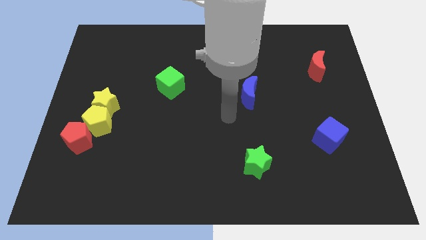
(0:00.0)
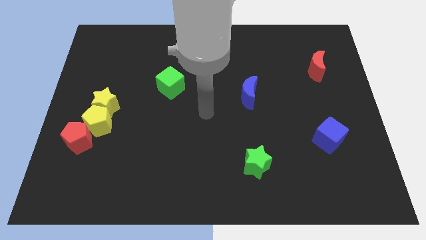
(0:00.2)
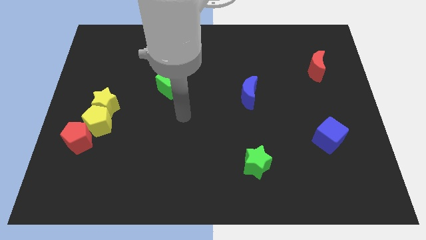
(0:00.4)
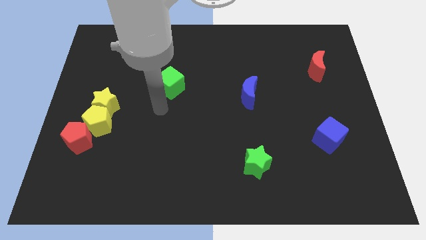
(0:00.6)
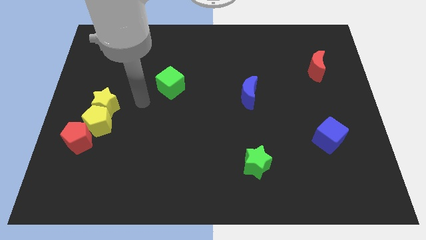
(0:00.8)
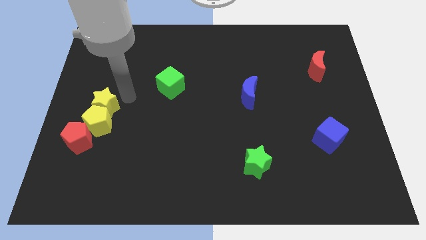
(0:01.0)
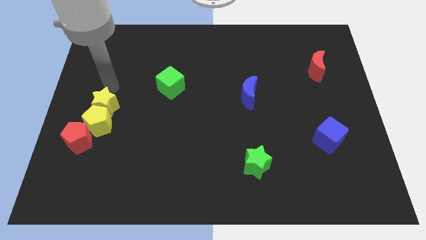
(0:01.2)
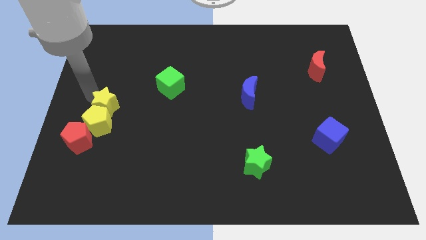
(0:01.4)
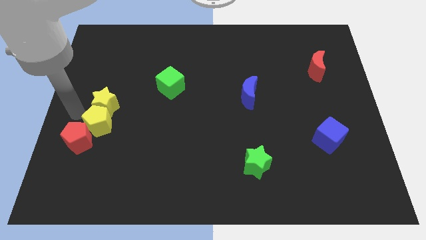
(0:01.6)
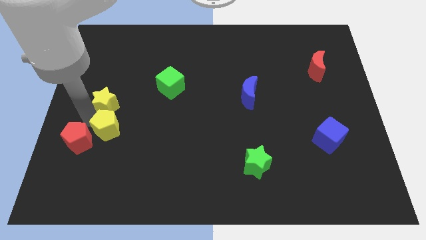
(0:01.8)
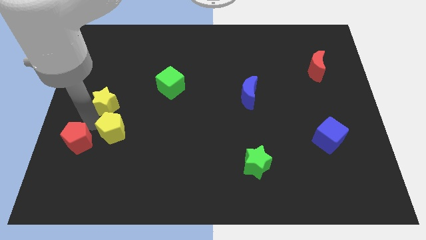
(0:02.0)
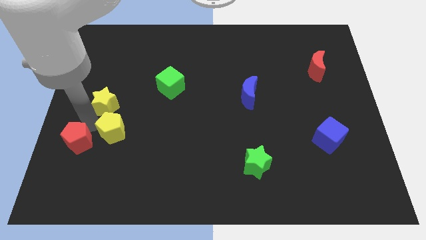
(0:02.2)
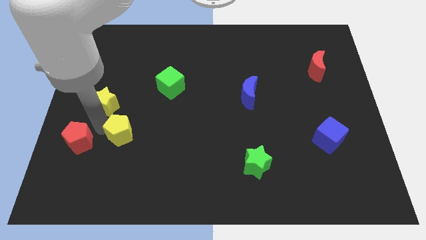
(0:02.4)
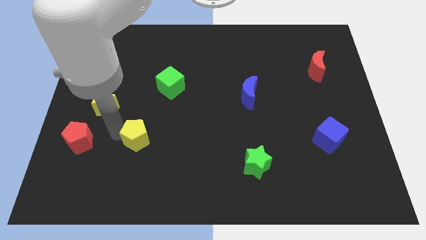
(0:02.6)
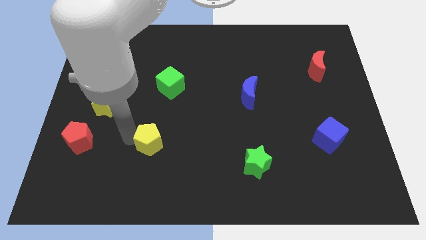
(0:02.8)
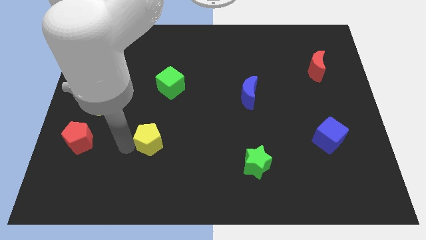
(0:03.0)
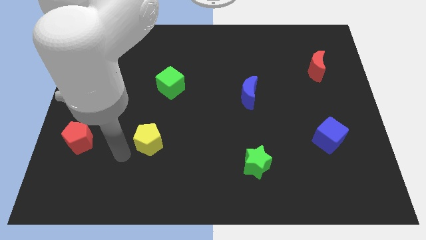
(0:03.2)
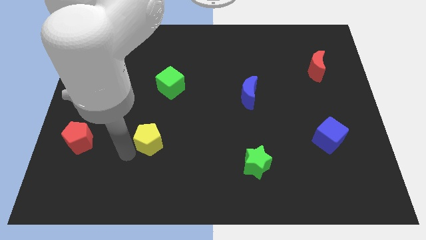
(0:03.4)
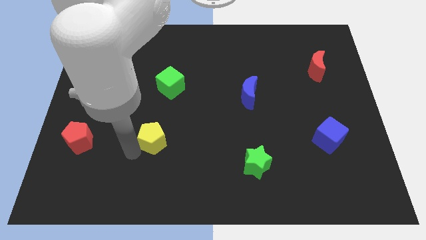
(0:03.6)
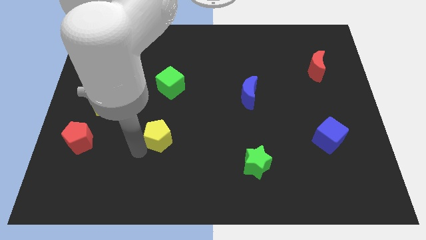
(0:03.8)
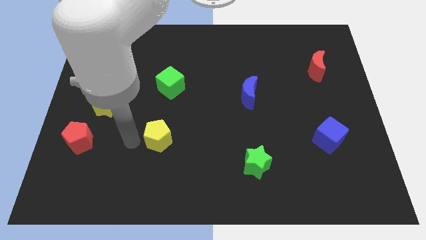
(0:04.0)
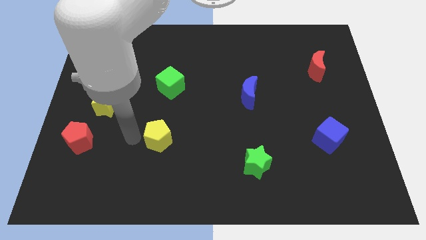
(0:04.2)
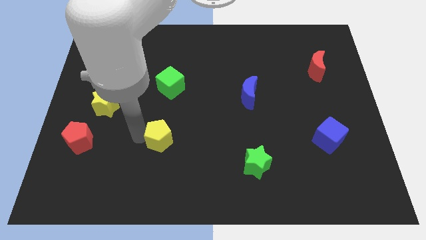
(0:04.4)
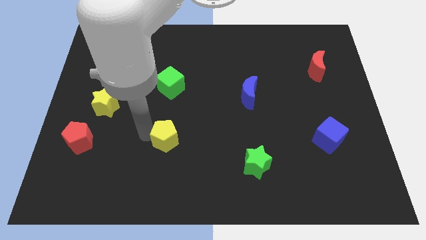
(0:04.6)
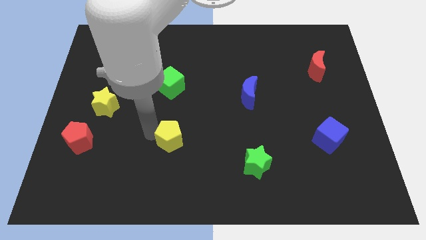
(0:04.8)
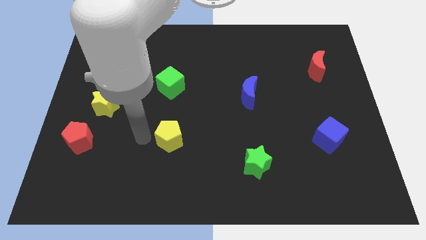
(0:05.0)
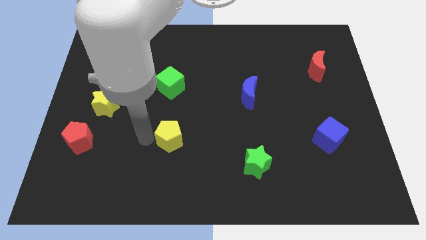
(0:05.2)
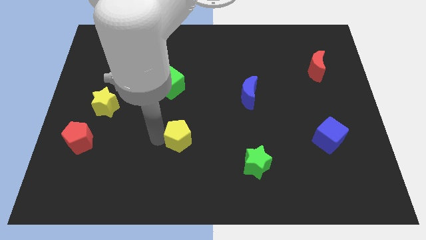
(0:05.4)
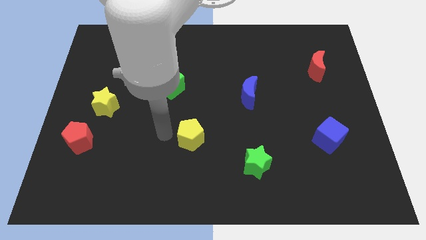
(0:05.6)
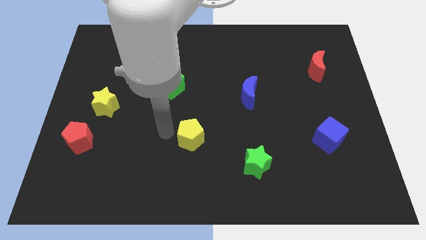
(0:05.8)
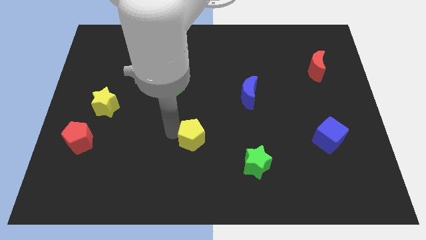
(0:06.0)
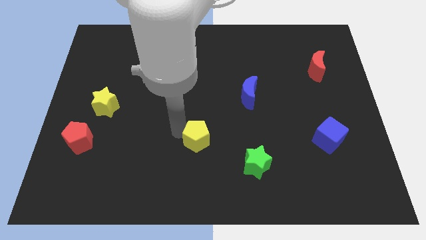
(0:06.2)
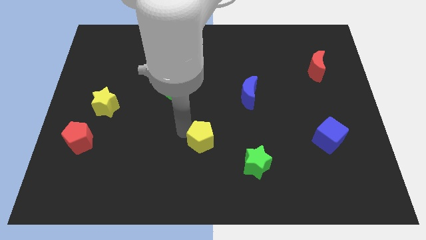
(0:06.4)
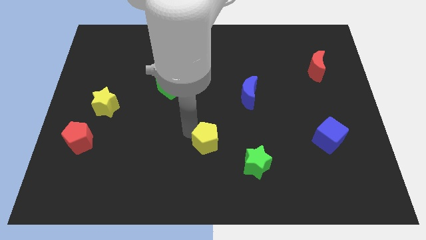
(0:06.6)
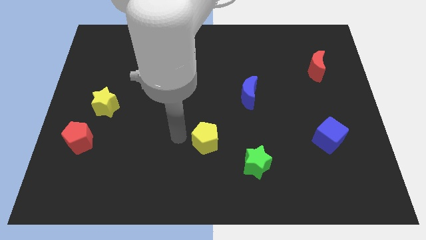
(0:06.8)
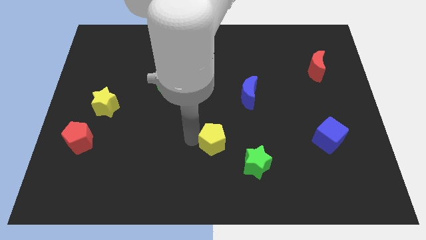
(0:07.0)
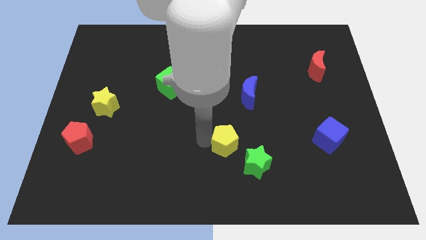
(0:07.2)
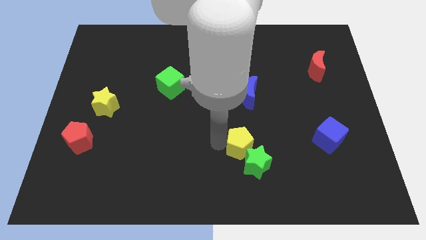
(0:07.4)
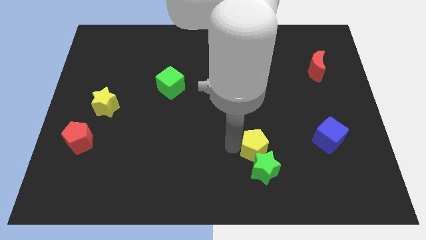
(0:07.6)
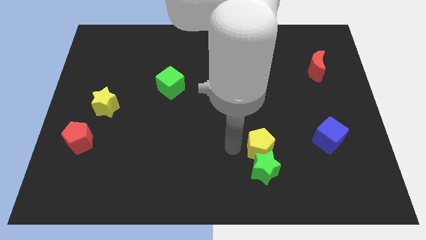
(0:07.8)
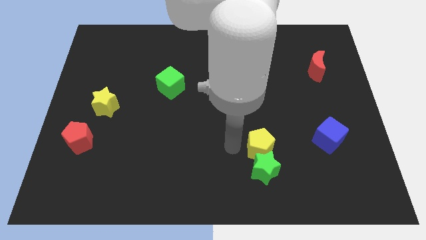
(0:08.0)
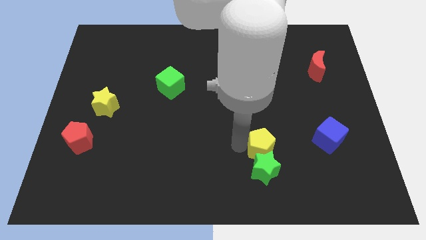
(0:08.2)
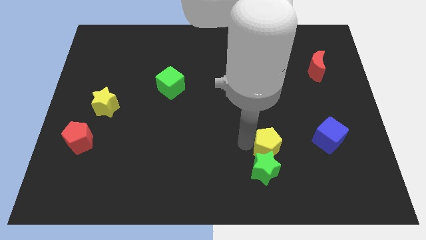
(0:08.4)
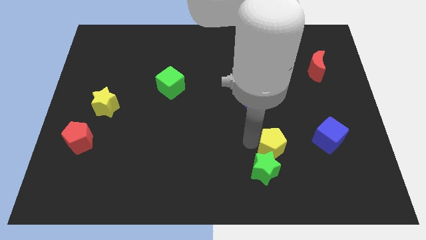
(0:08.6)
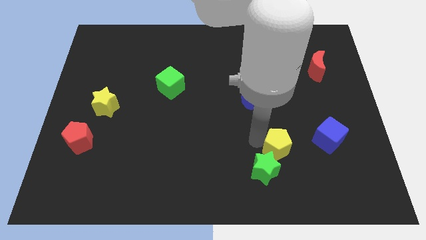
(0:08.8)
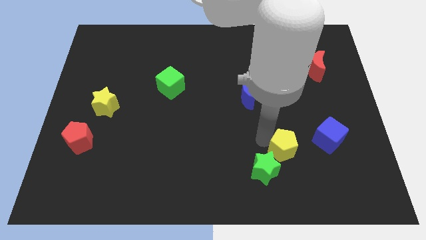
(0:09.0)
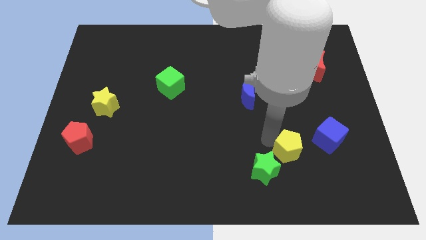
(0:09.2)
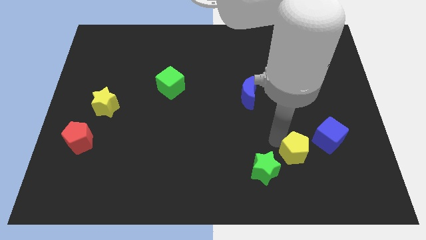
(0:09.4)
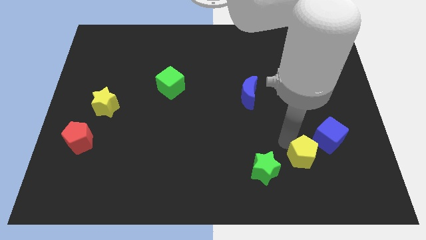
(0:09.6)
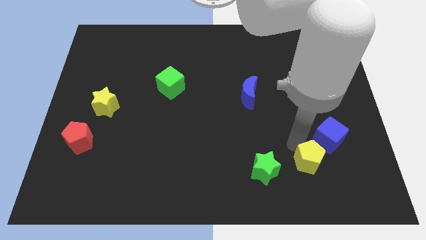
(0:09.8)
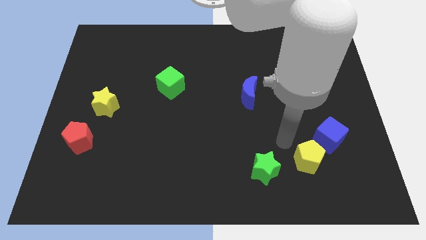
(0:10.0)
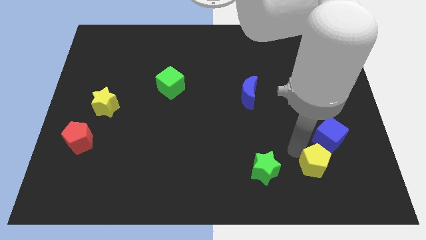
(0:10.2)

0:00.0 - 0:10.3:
put the yellow pentagon below the blue cube

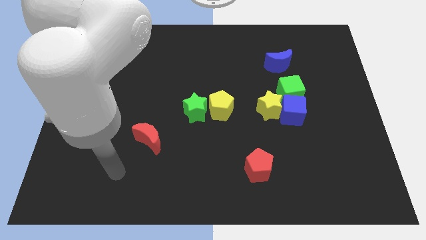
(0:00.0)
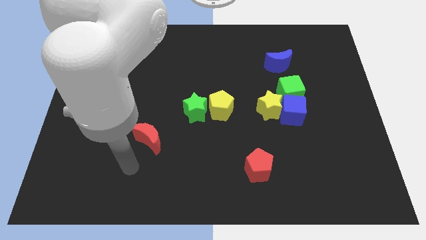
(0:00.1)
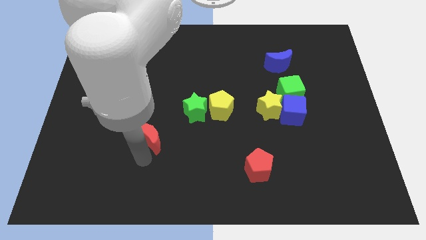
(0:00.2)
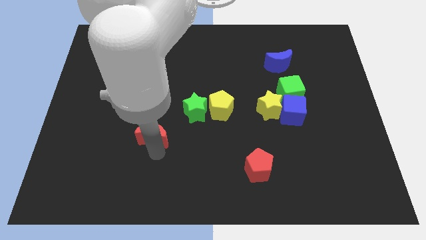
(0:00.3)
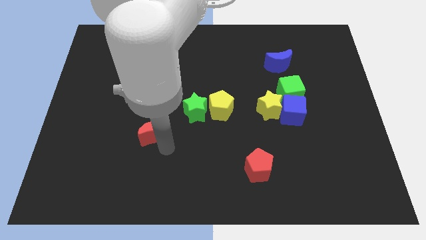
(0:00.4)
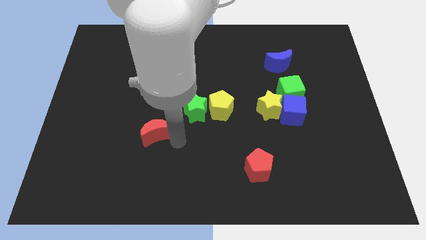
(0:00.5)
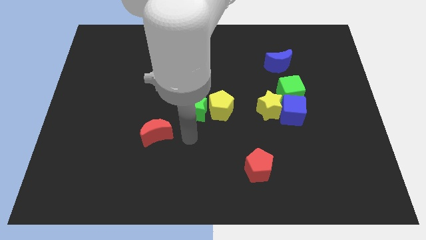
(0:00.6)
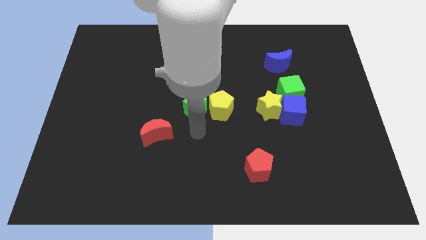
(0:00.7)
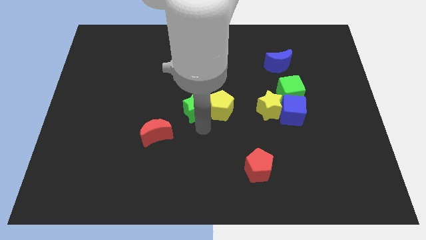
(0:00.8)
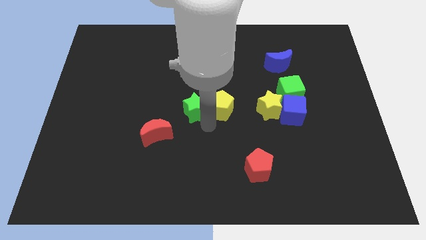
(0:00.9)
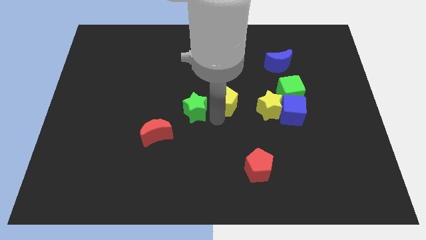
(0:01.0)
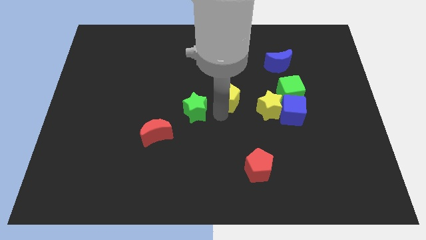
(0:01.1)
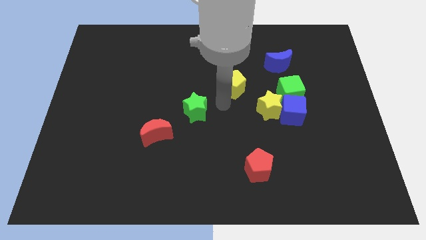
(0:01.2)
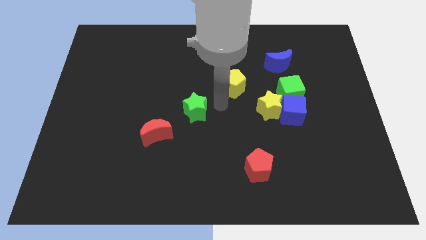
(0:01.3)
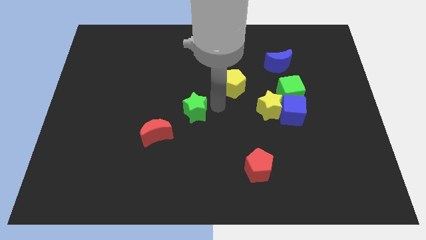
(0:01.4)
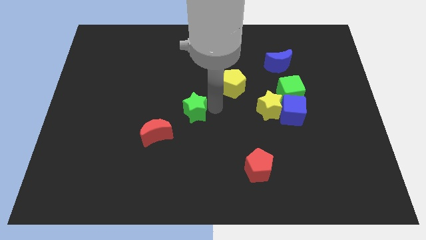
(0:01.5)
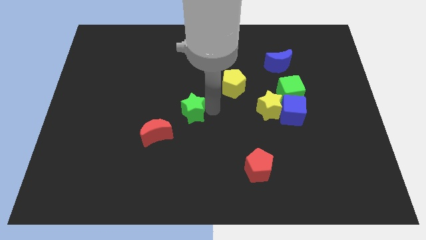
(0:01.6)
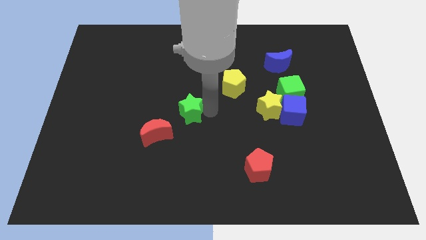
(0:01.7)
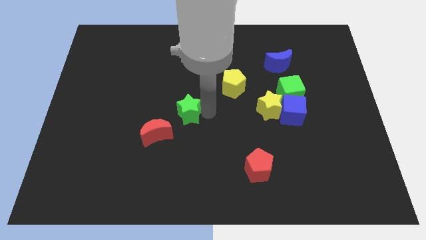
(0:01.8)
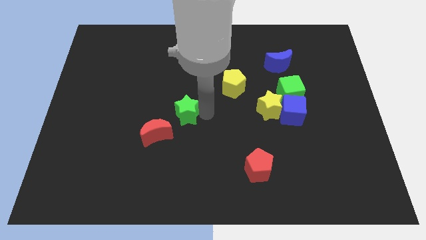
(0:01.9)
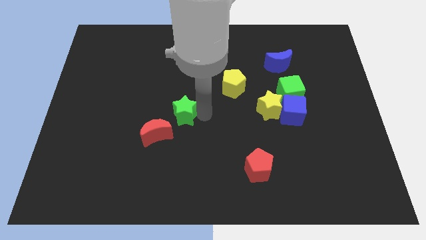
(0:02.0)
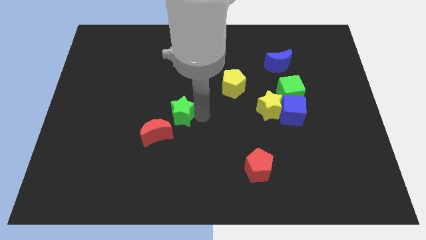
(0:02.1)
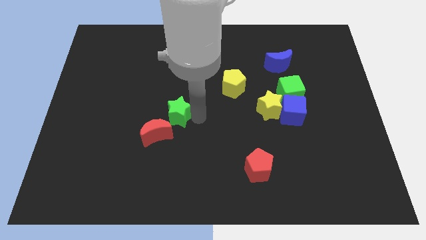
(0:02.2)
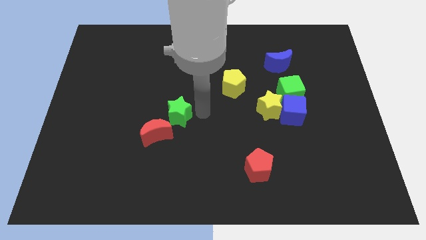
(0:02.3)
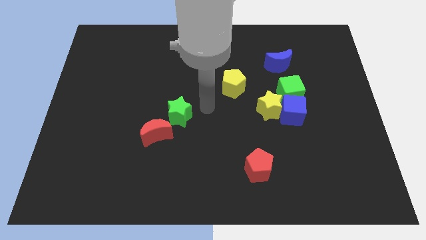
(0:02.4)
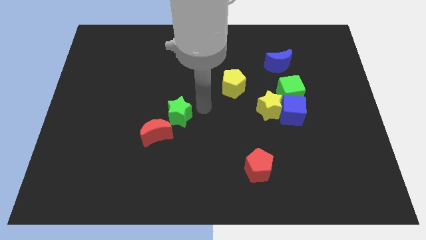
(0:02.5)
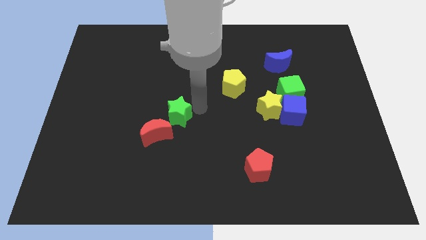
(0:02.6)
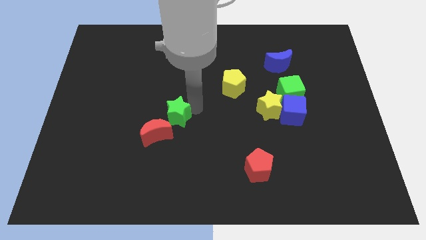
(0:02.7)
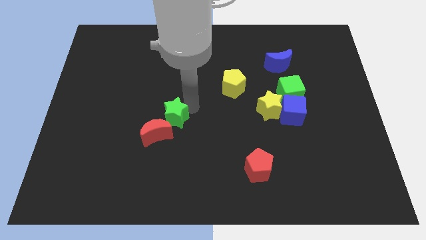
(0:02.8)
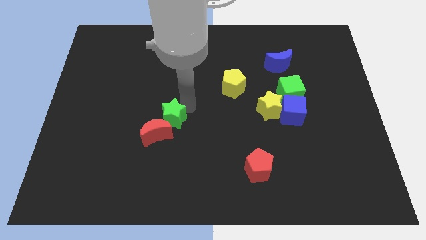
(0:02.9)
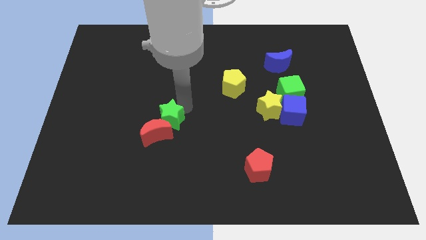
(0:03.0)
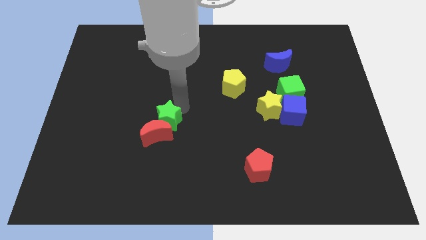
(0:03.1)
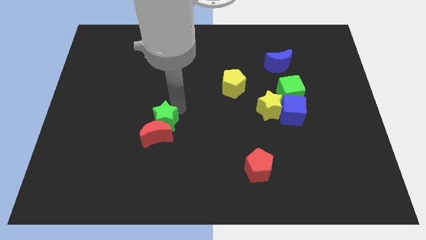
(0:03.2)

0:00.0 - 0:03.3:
slide the green star to the top left side of the red moon

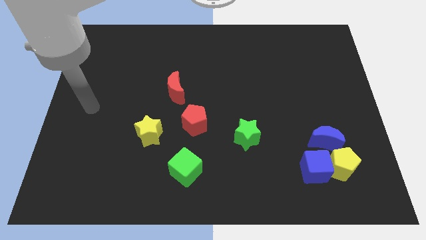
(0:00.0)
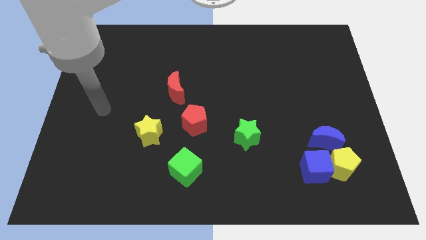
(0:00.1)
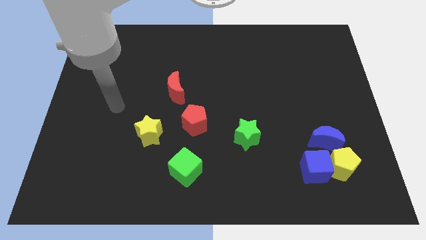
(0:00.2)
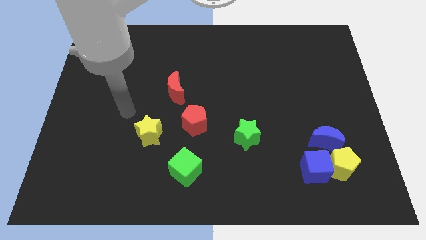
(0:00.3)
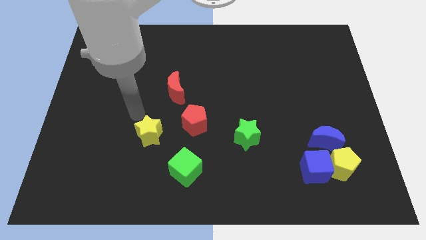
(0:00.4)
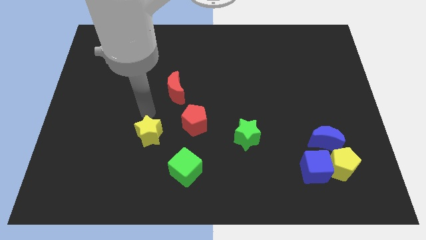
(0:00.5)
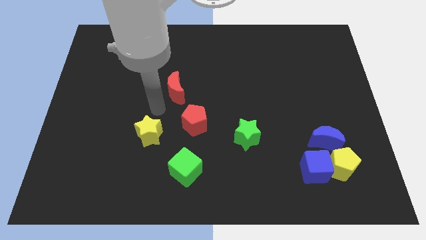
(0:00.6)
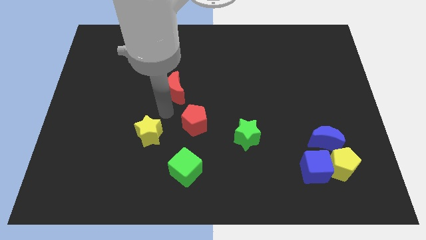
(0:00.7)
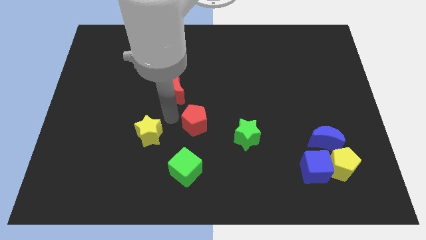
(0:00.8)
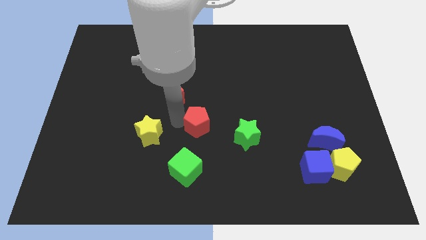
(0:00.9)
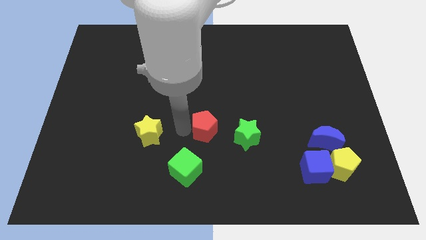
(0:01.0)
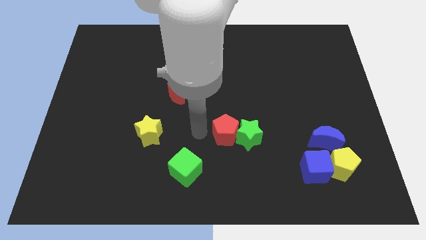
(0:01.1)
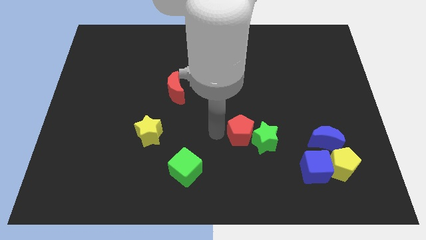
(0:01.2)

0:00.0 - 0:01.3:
move the green star left of the blue moon
